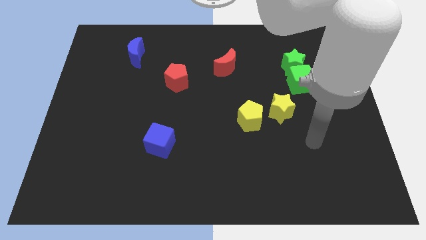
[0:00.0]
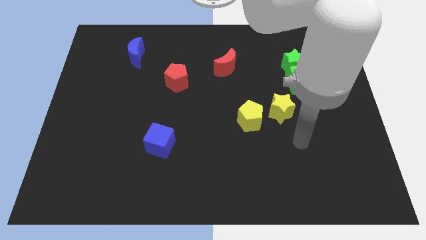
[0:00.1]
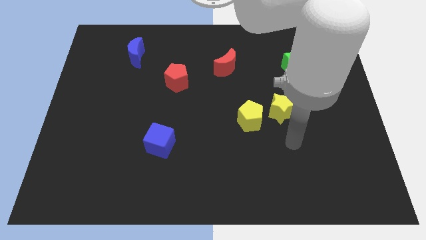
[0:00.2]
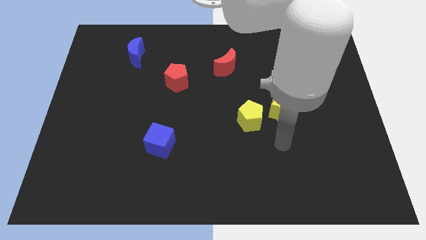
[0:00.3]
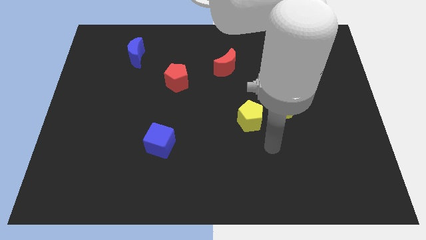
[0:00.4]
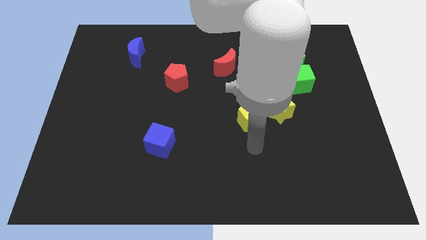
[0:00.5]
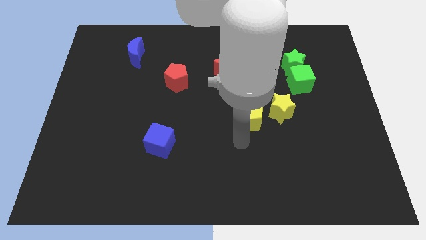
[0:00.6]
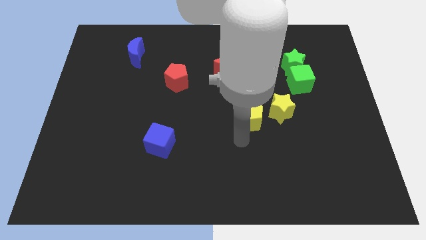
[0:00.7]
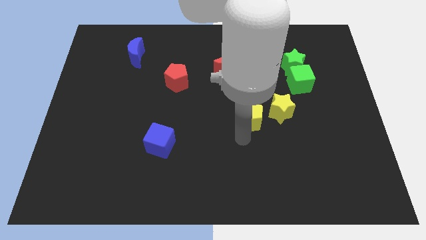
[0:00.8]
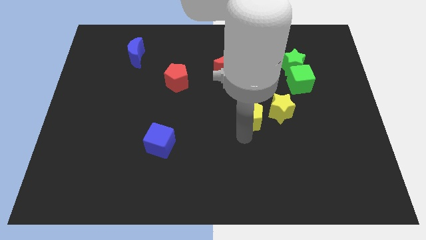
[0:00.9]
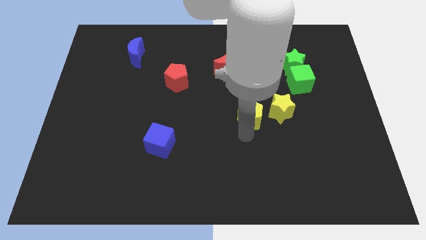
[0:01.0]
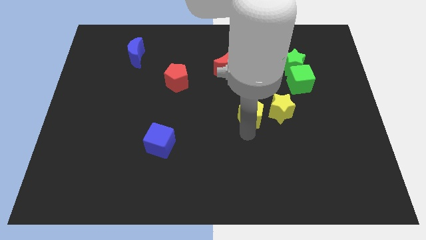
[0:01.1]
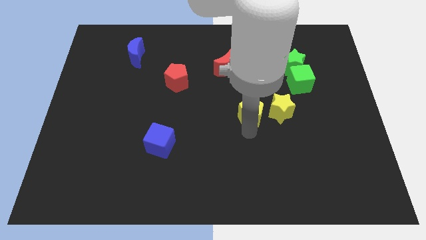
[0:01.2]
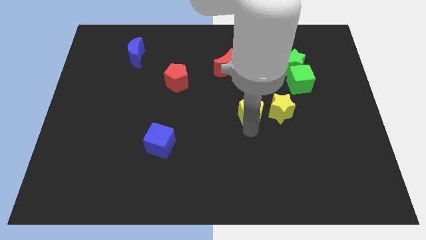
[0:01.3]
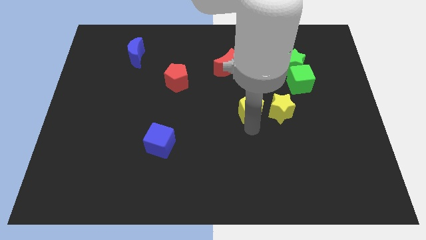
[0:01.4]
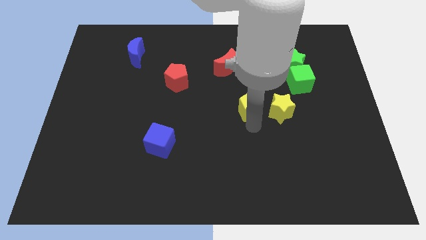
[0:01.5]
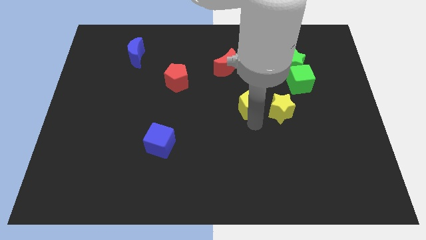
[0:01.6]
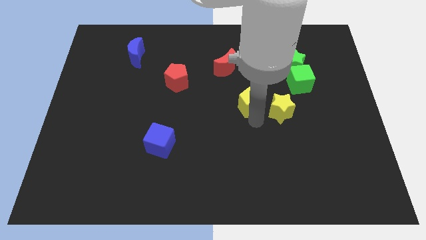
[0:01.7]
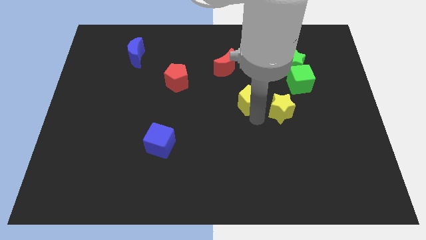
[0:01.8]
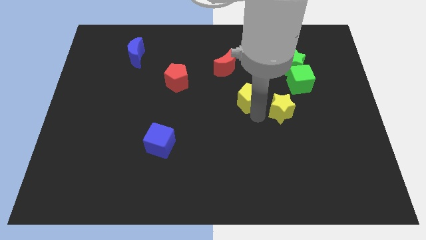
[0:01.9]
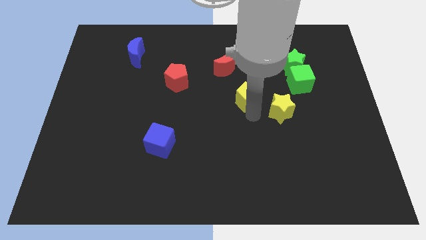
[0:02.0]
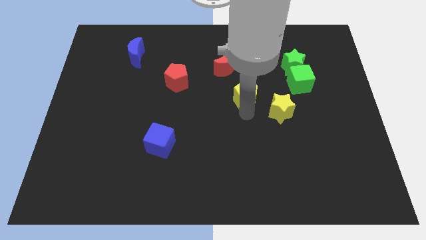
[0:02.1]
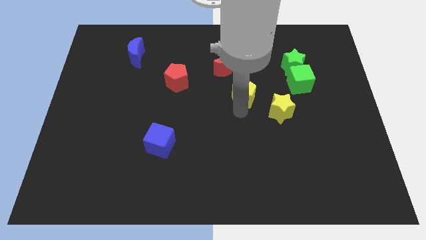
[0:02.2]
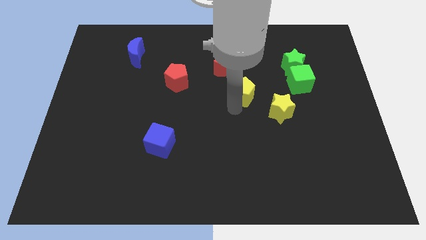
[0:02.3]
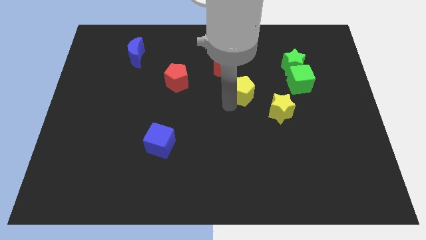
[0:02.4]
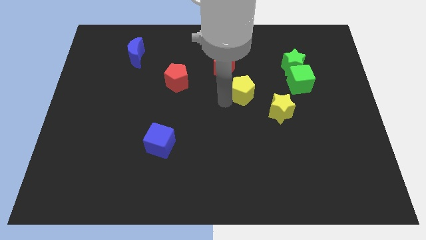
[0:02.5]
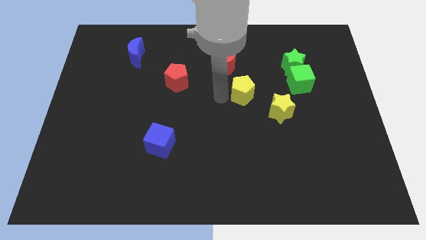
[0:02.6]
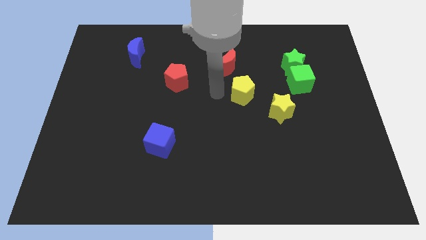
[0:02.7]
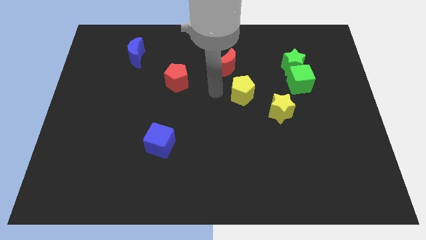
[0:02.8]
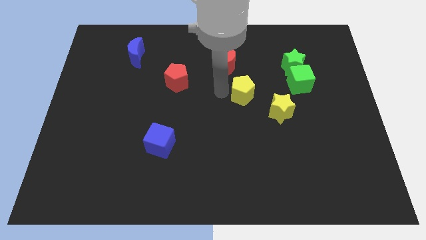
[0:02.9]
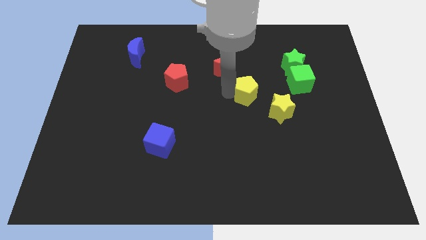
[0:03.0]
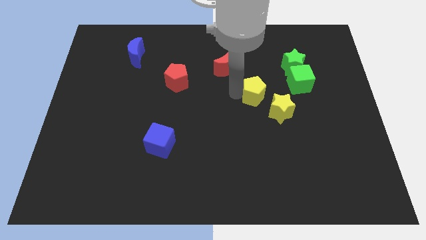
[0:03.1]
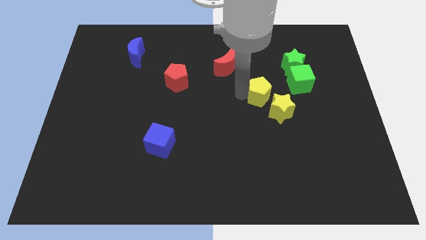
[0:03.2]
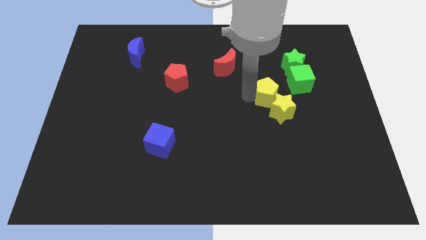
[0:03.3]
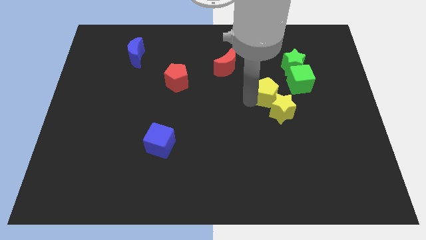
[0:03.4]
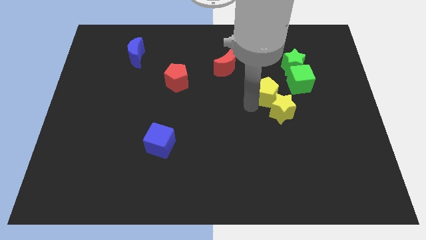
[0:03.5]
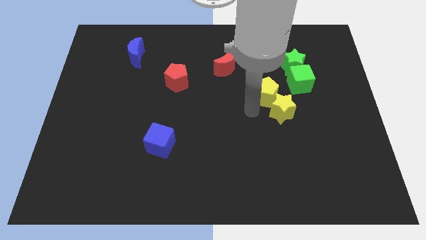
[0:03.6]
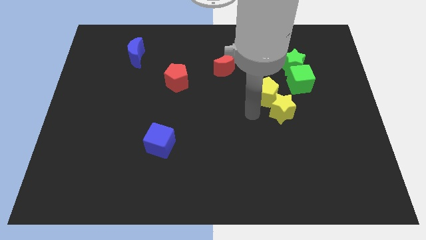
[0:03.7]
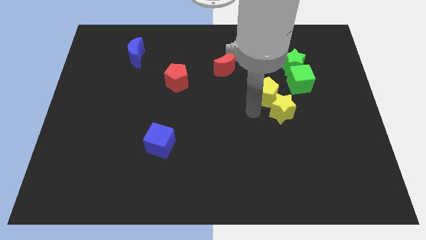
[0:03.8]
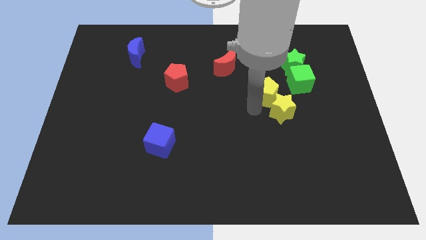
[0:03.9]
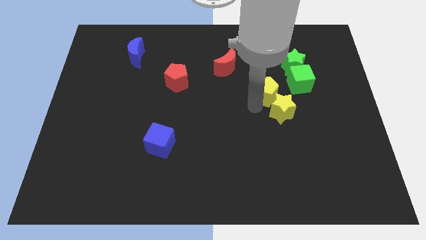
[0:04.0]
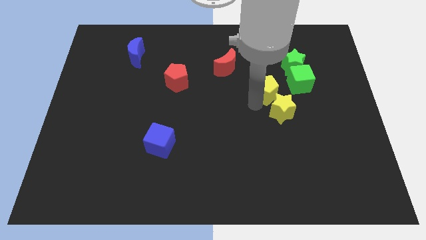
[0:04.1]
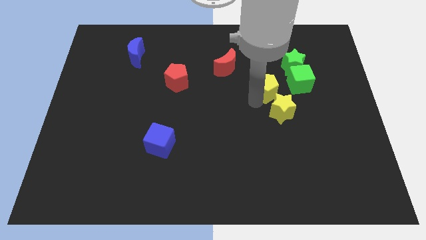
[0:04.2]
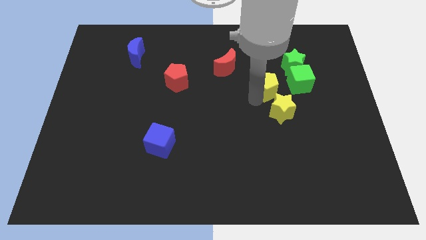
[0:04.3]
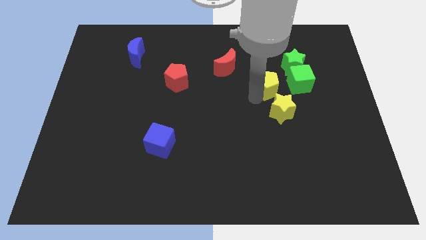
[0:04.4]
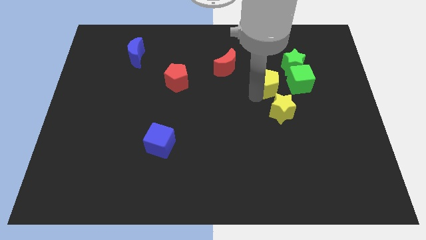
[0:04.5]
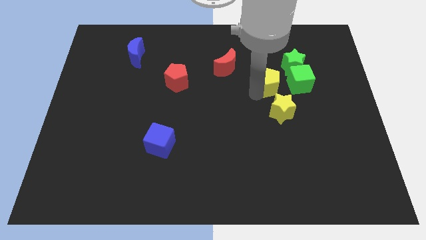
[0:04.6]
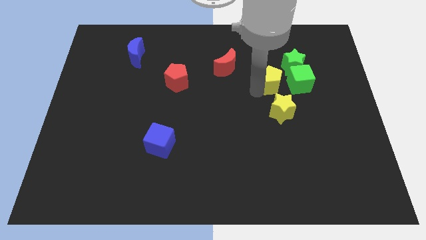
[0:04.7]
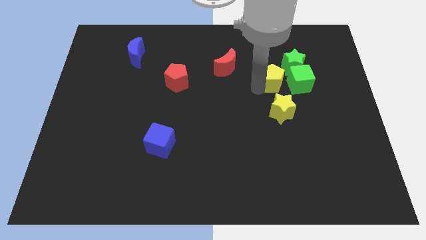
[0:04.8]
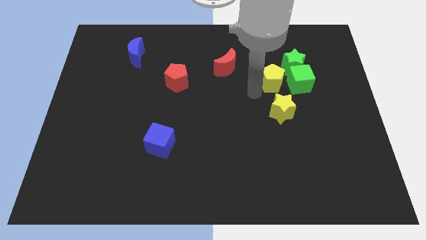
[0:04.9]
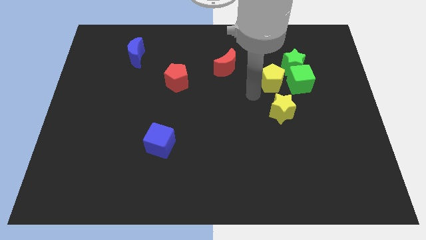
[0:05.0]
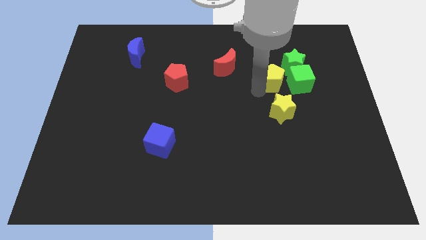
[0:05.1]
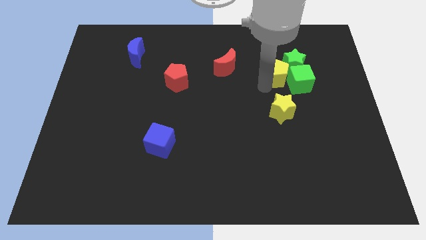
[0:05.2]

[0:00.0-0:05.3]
put the yellow pentagon next to the green star

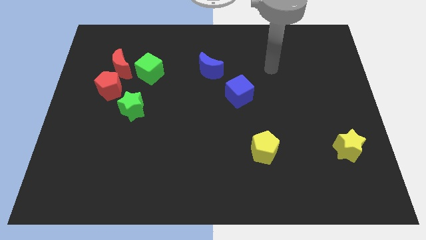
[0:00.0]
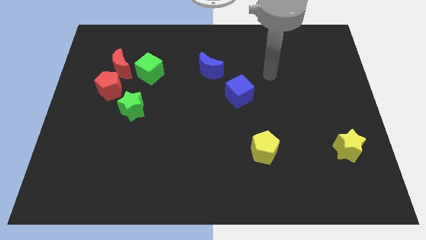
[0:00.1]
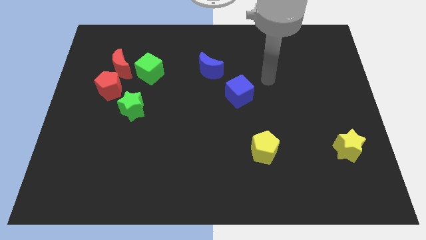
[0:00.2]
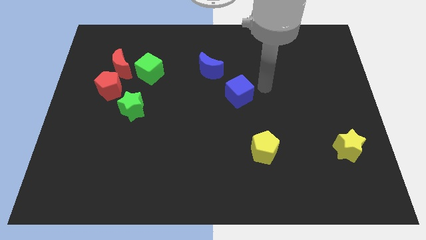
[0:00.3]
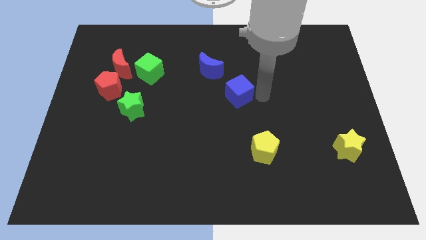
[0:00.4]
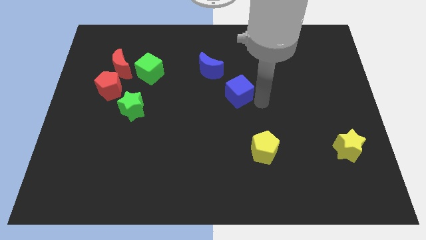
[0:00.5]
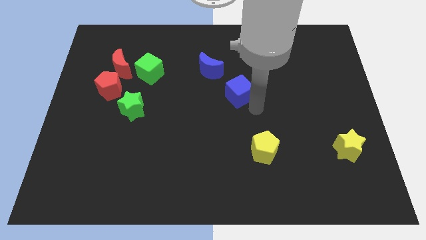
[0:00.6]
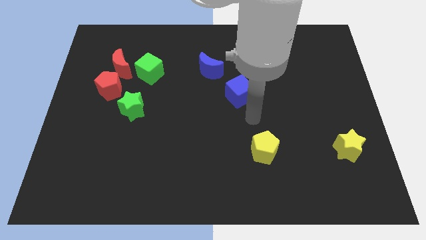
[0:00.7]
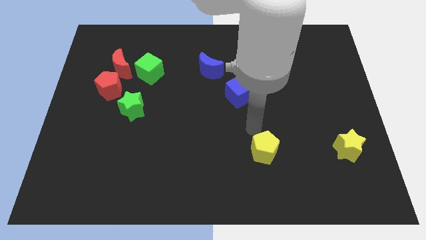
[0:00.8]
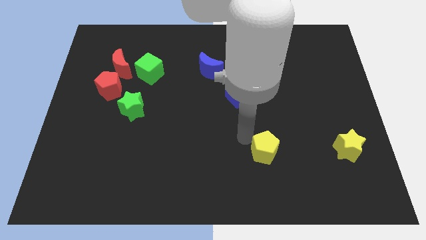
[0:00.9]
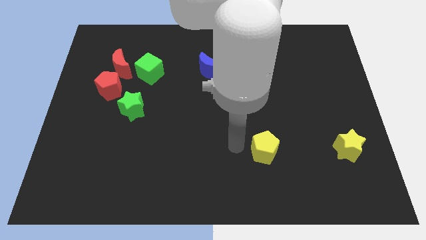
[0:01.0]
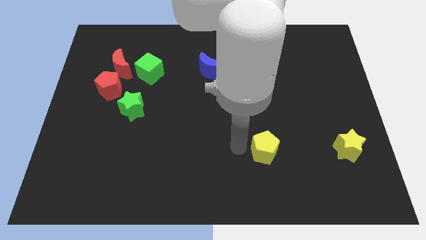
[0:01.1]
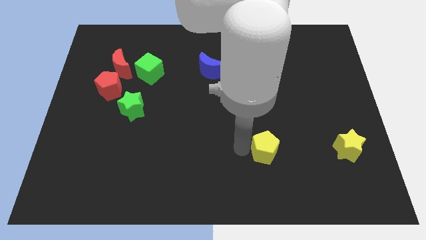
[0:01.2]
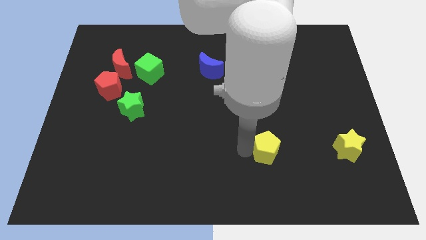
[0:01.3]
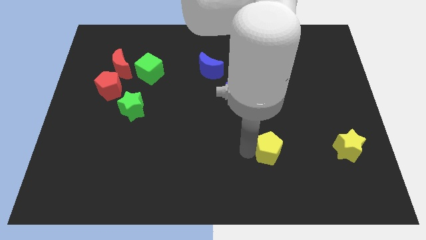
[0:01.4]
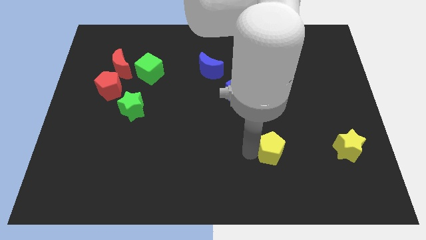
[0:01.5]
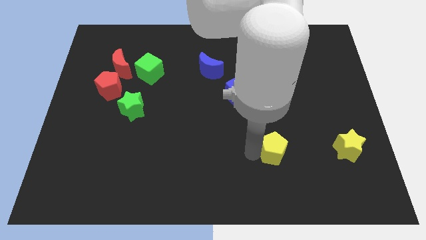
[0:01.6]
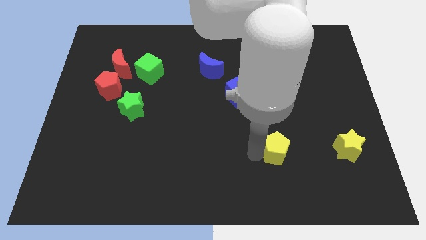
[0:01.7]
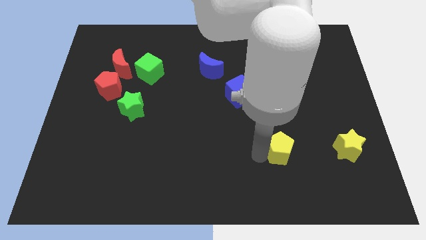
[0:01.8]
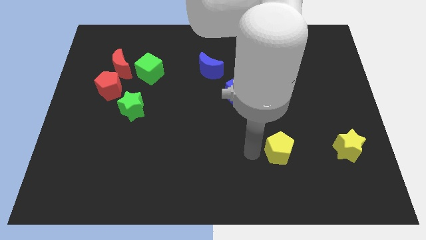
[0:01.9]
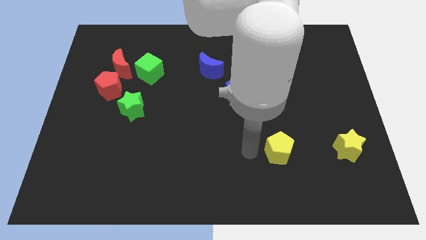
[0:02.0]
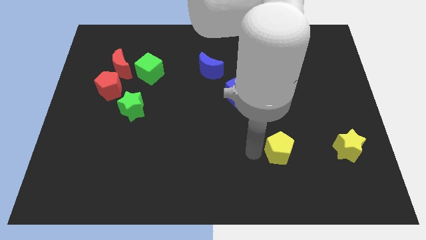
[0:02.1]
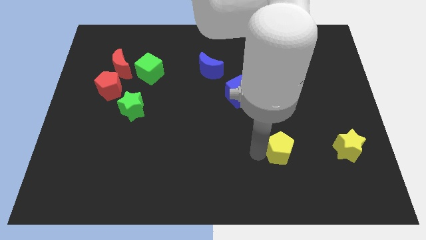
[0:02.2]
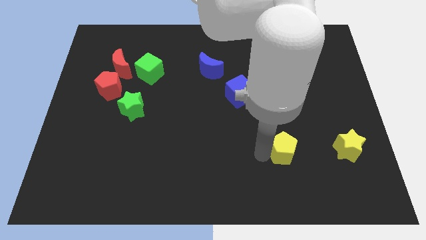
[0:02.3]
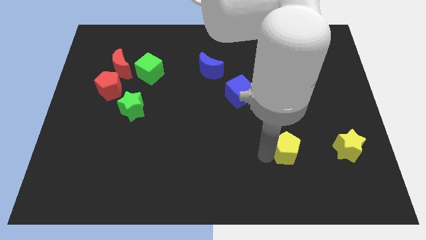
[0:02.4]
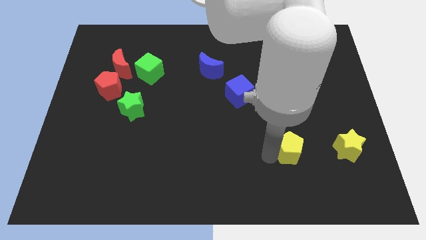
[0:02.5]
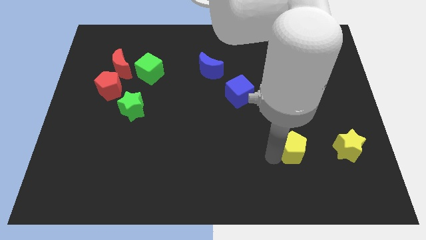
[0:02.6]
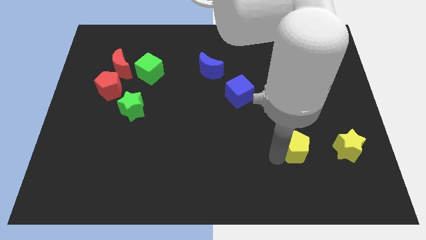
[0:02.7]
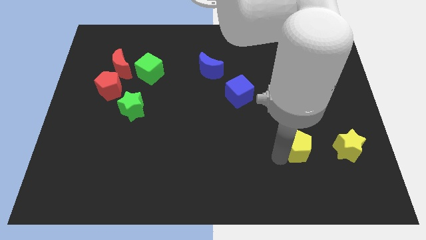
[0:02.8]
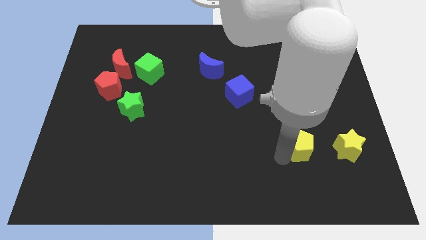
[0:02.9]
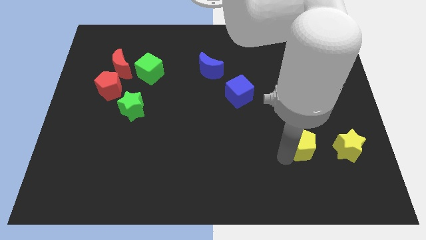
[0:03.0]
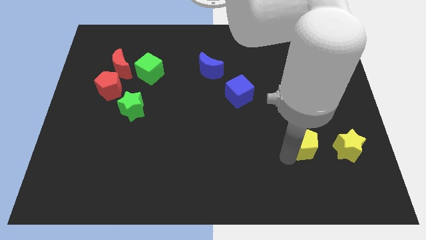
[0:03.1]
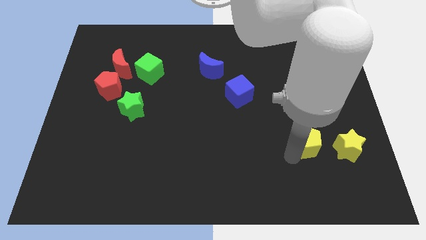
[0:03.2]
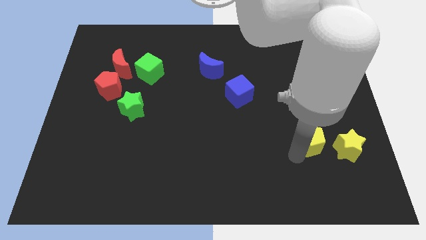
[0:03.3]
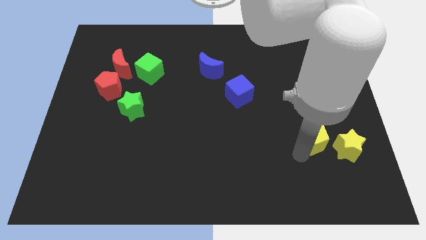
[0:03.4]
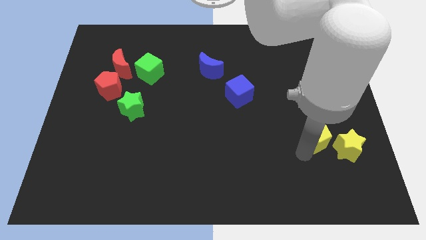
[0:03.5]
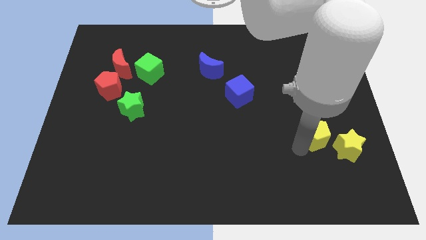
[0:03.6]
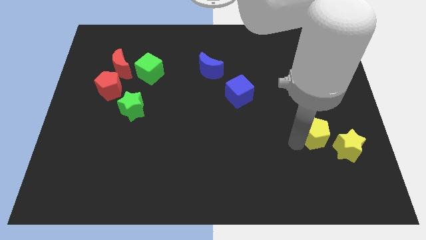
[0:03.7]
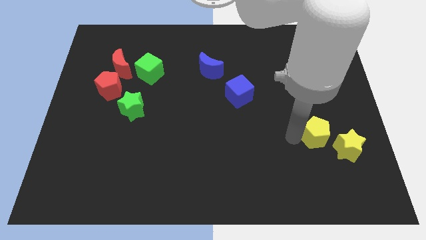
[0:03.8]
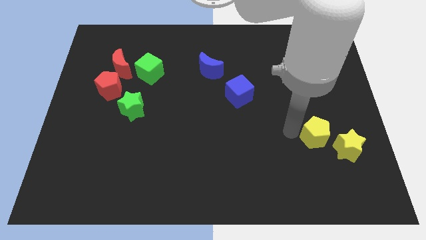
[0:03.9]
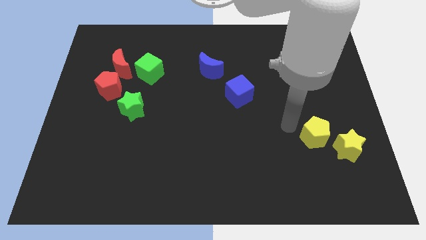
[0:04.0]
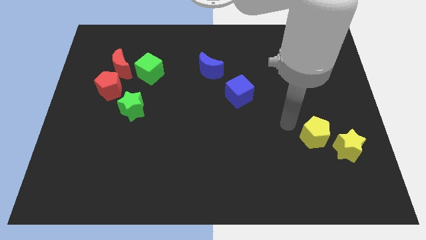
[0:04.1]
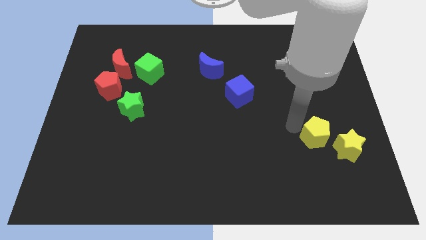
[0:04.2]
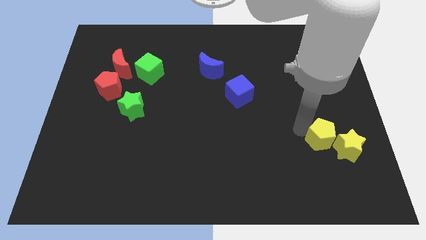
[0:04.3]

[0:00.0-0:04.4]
put the yellow pentagon next to the yellow star
